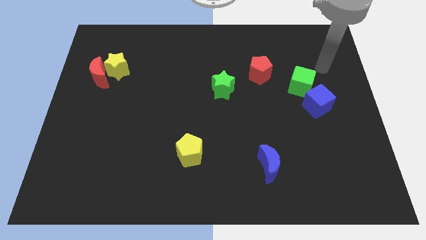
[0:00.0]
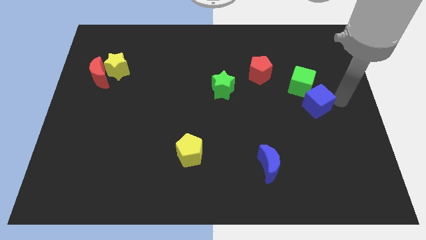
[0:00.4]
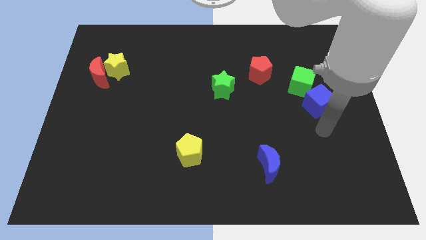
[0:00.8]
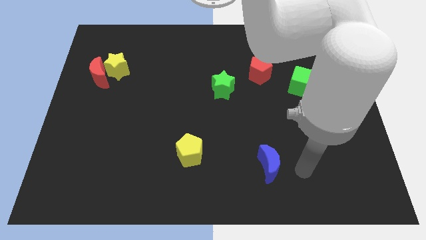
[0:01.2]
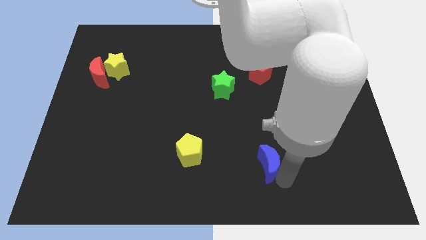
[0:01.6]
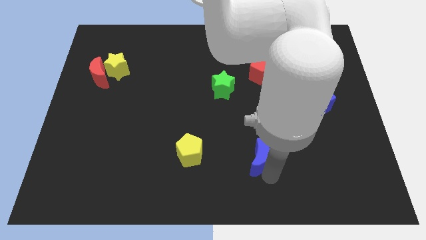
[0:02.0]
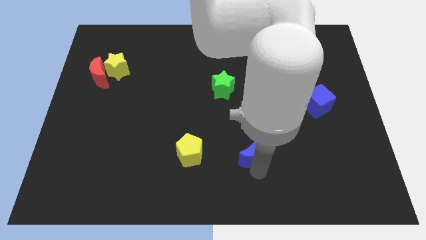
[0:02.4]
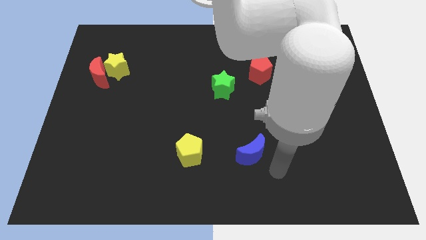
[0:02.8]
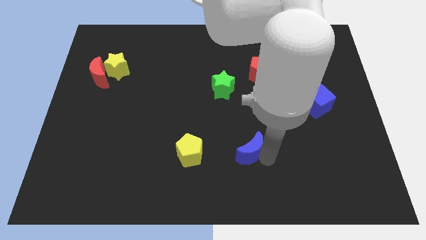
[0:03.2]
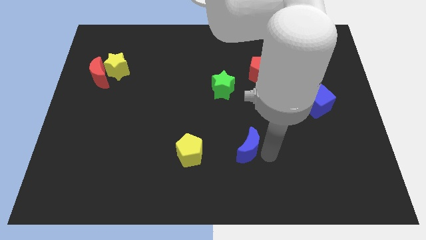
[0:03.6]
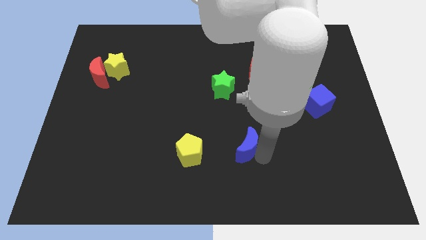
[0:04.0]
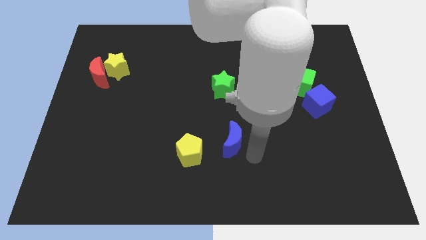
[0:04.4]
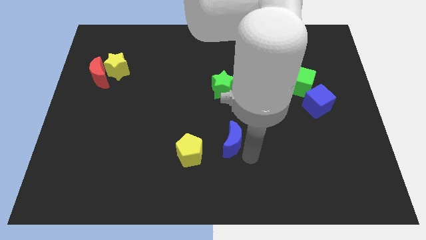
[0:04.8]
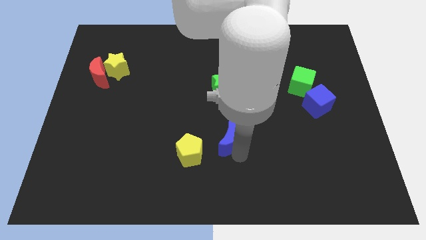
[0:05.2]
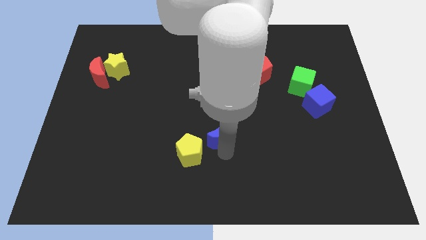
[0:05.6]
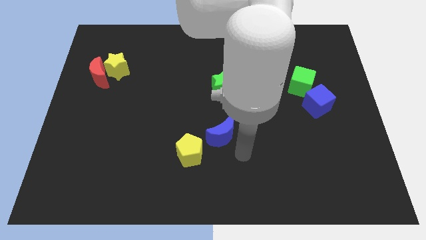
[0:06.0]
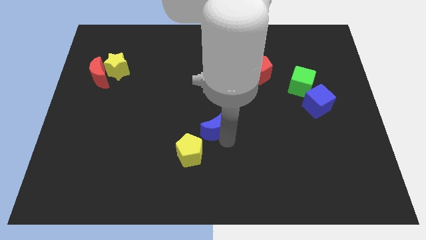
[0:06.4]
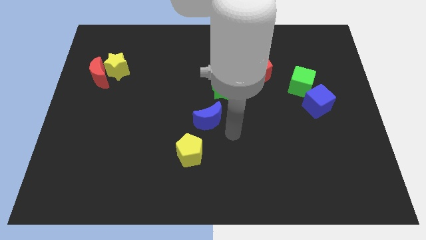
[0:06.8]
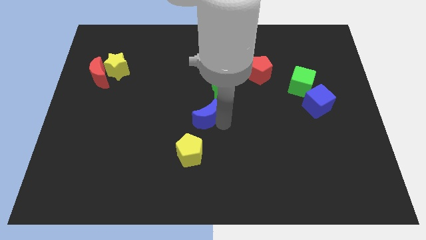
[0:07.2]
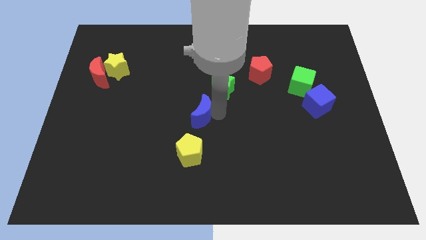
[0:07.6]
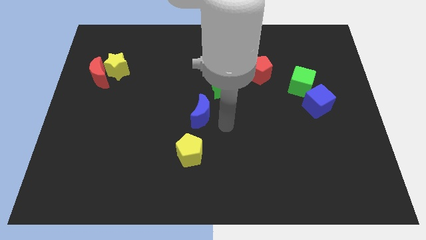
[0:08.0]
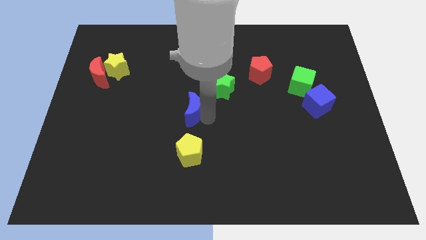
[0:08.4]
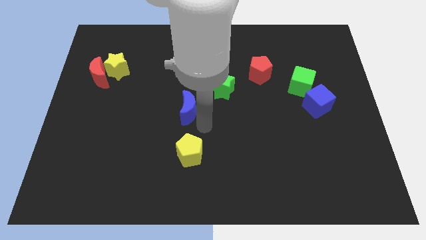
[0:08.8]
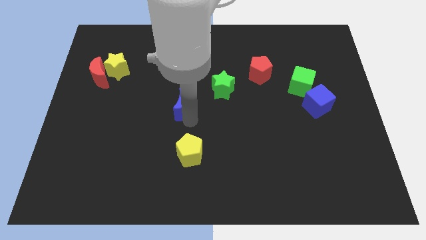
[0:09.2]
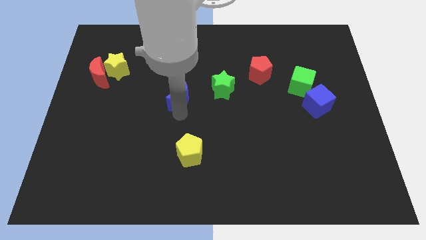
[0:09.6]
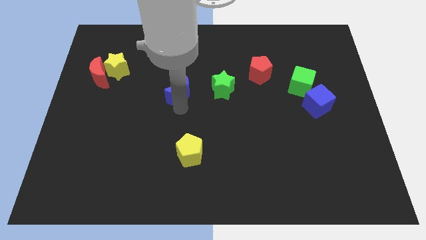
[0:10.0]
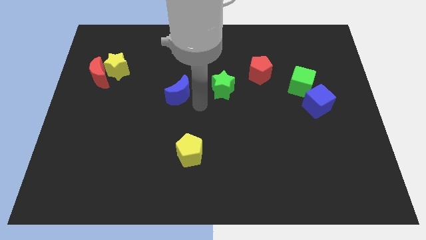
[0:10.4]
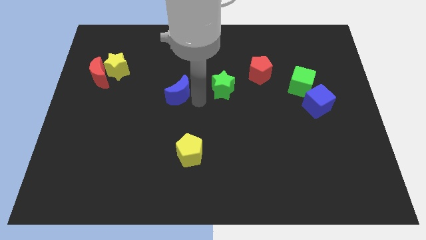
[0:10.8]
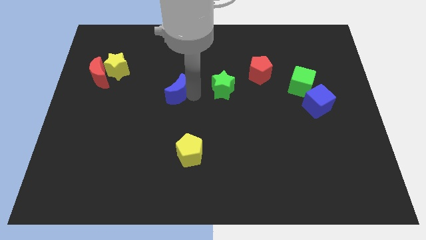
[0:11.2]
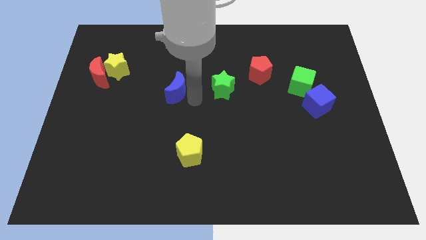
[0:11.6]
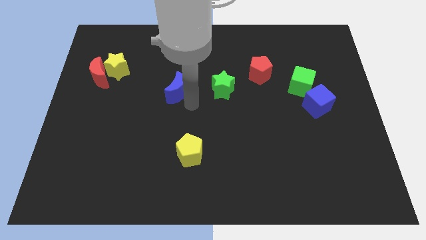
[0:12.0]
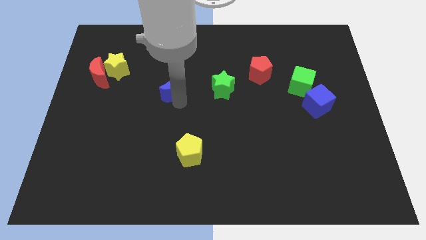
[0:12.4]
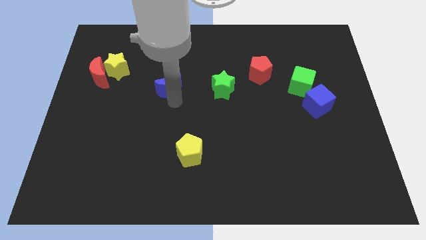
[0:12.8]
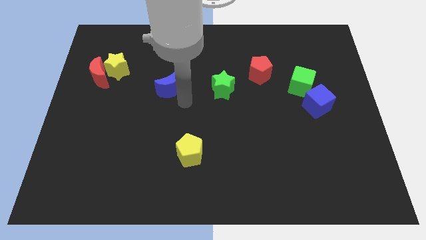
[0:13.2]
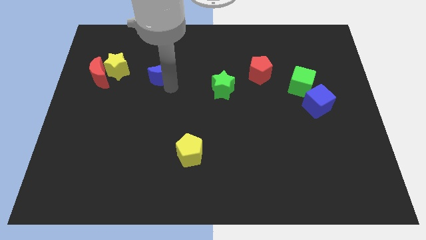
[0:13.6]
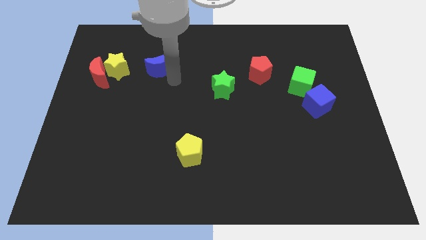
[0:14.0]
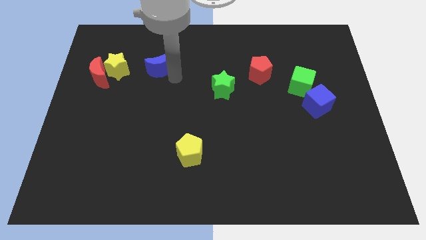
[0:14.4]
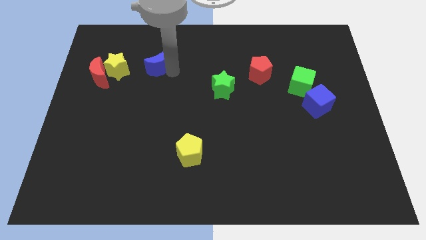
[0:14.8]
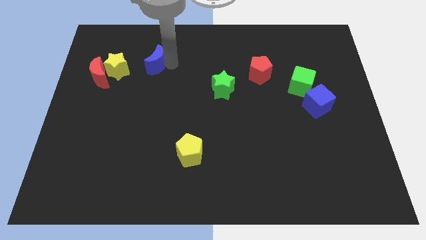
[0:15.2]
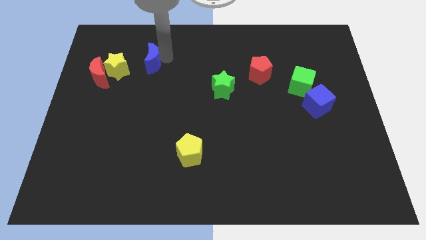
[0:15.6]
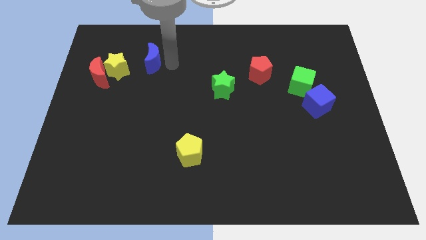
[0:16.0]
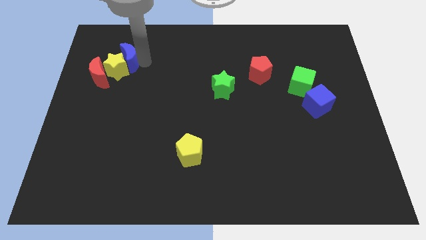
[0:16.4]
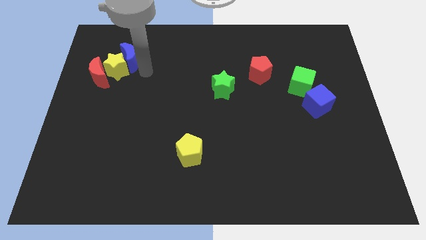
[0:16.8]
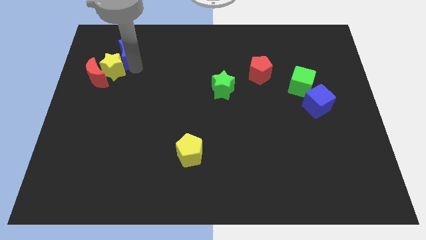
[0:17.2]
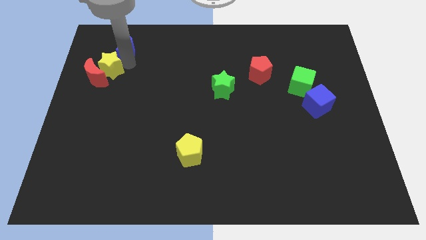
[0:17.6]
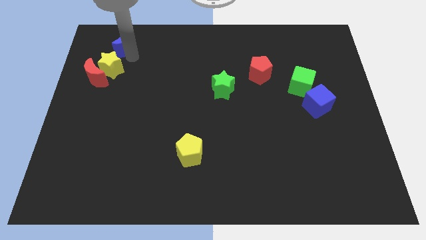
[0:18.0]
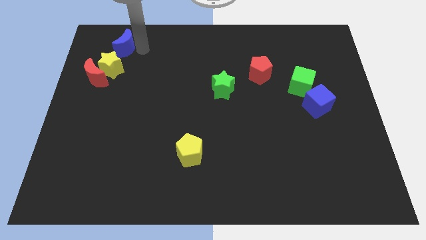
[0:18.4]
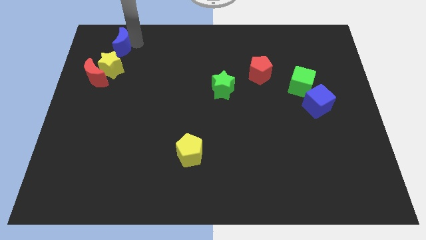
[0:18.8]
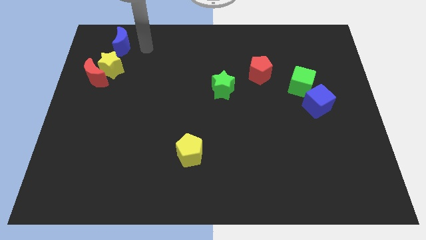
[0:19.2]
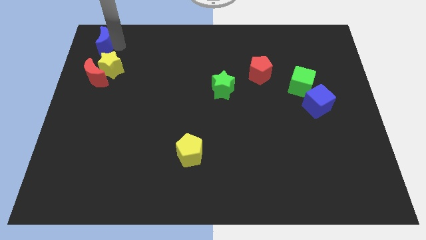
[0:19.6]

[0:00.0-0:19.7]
put the blue moon to the top left of the board
